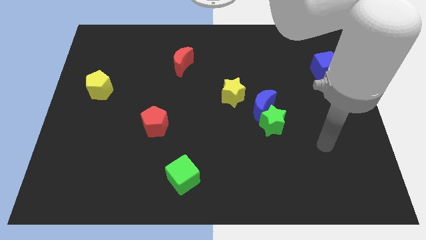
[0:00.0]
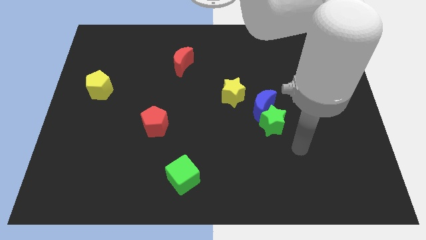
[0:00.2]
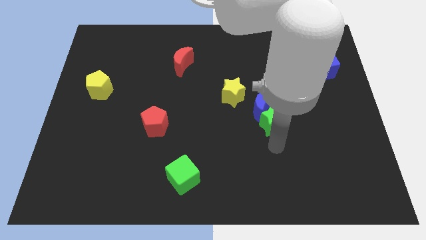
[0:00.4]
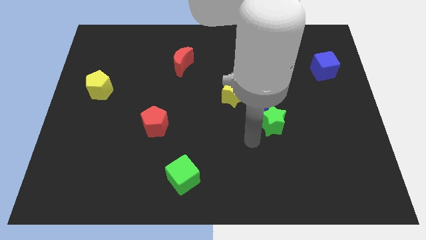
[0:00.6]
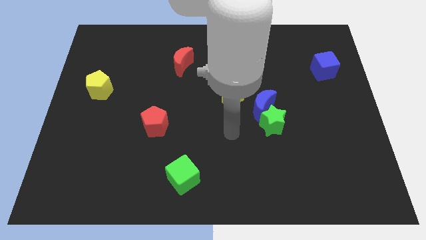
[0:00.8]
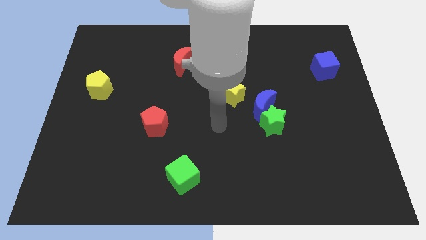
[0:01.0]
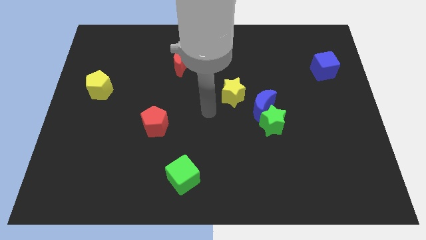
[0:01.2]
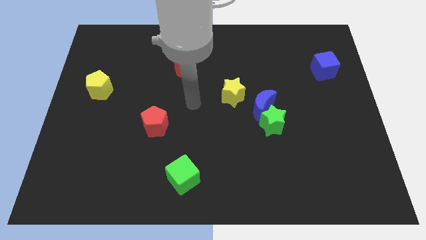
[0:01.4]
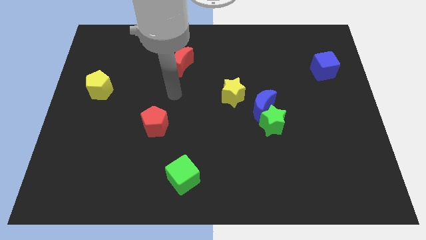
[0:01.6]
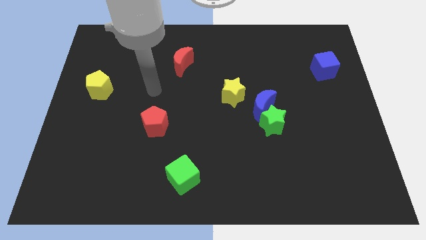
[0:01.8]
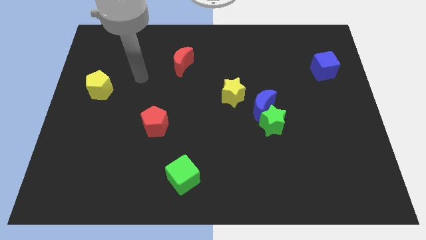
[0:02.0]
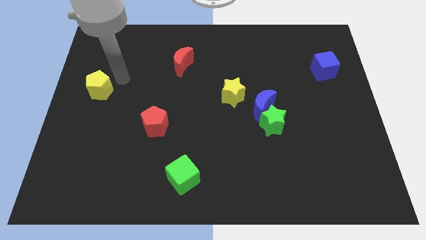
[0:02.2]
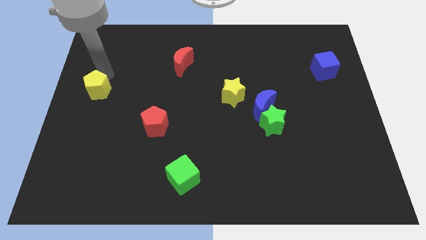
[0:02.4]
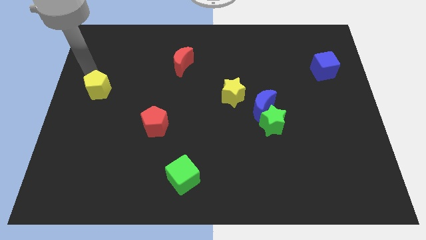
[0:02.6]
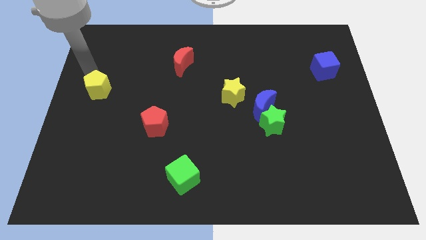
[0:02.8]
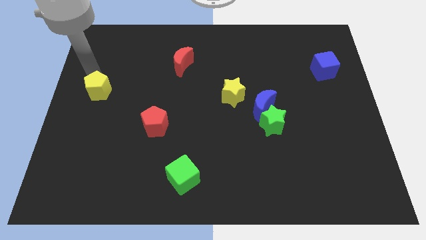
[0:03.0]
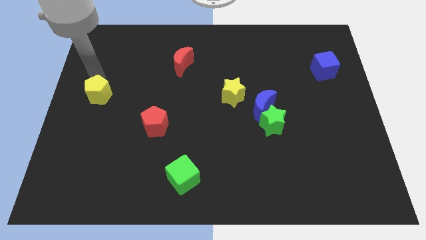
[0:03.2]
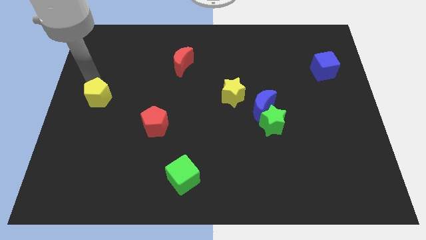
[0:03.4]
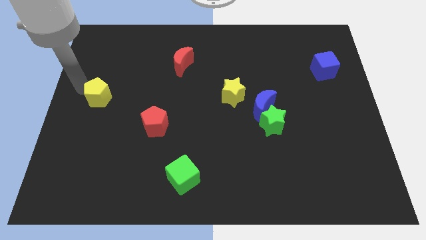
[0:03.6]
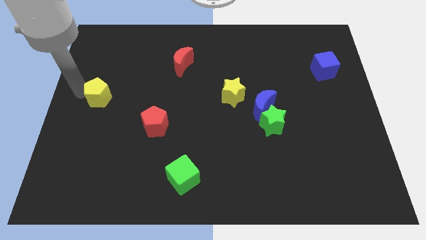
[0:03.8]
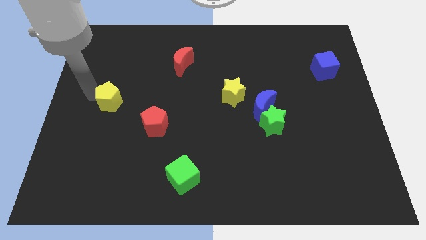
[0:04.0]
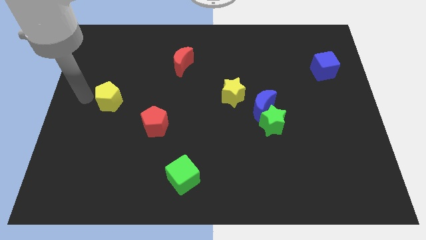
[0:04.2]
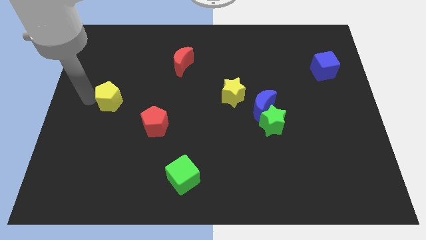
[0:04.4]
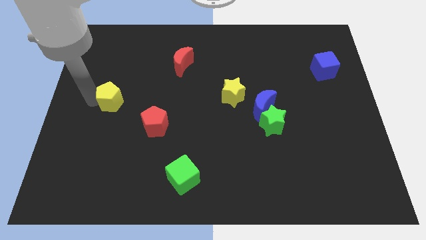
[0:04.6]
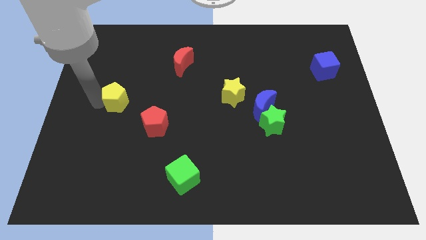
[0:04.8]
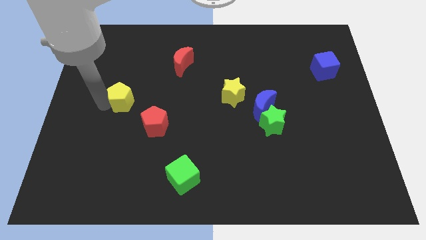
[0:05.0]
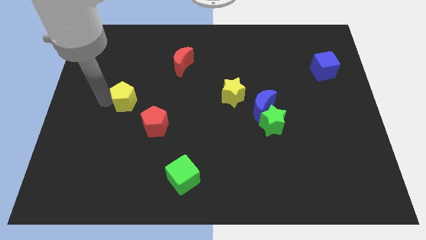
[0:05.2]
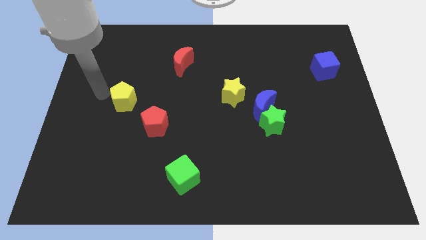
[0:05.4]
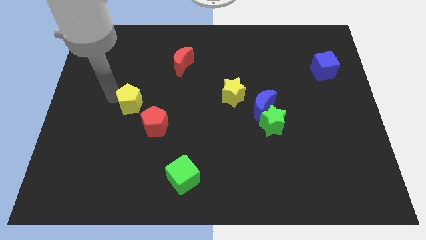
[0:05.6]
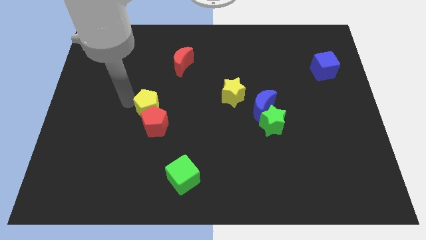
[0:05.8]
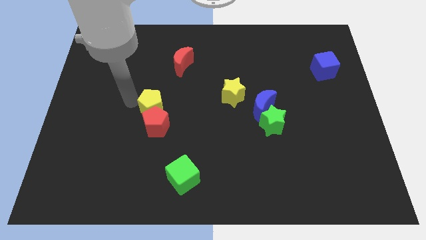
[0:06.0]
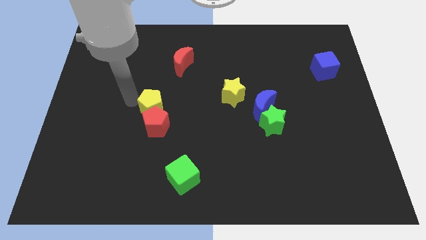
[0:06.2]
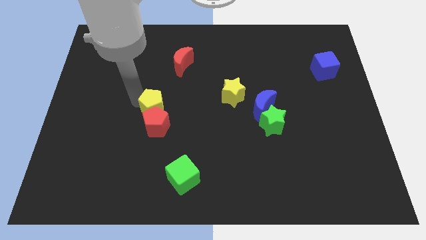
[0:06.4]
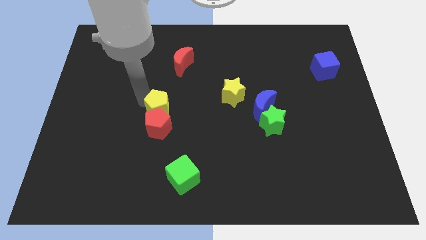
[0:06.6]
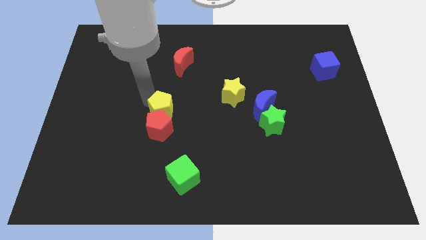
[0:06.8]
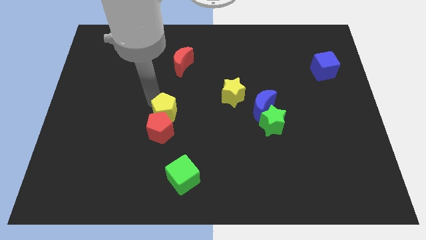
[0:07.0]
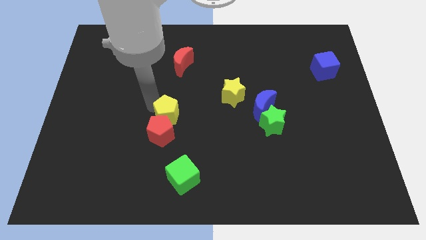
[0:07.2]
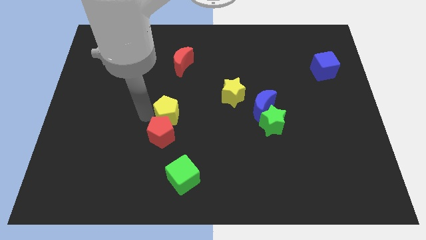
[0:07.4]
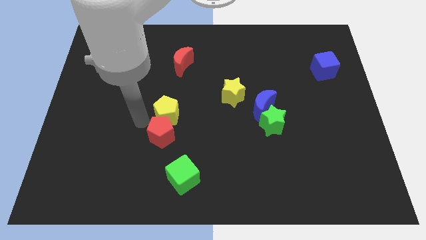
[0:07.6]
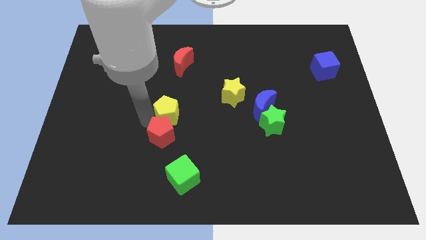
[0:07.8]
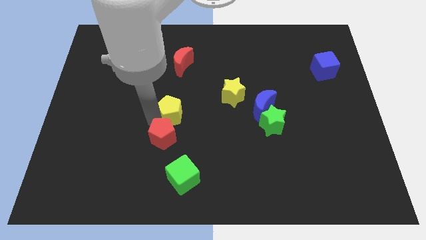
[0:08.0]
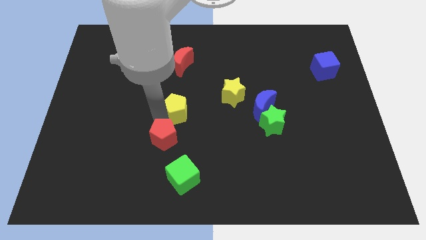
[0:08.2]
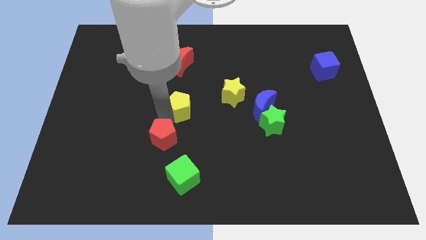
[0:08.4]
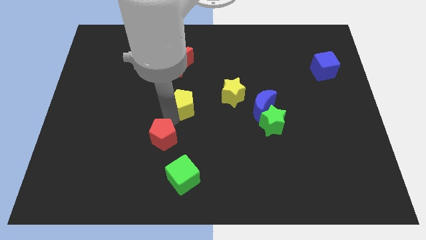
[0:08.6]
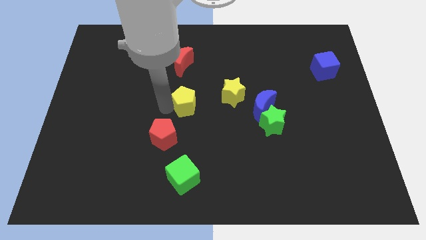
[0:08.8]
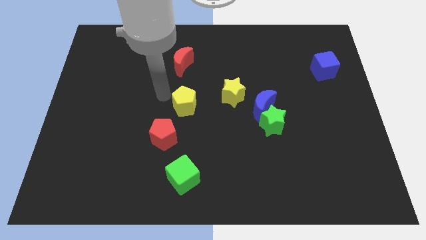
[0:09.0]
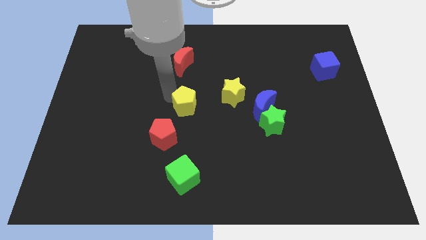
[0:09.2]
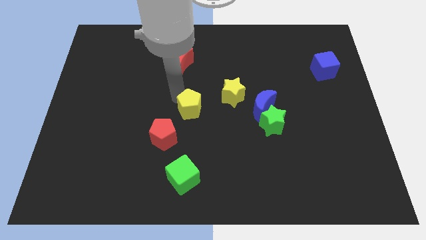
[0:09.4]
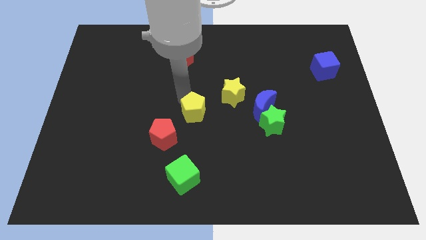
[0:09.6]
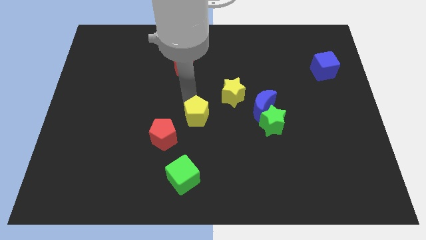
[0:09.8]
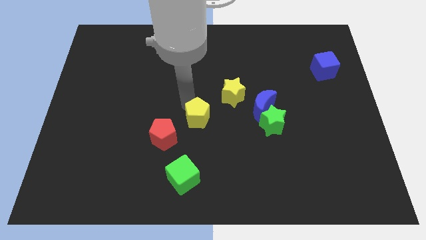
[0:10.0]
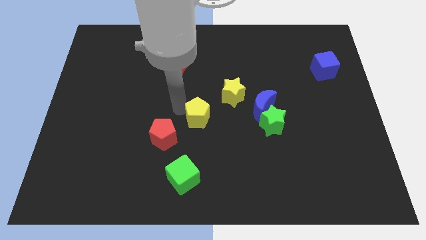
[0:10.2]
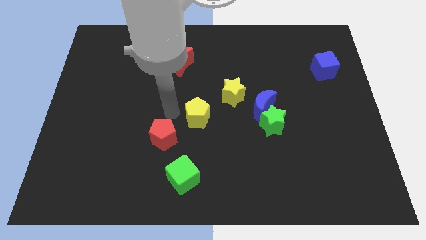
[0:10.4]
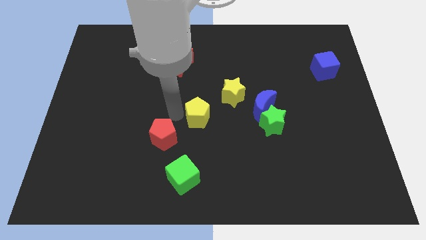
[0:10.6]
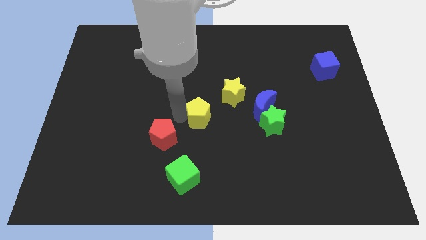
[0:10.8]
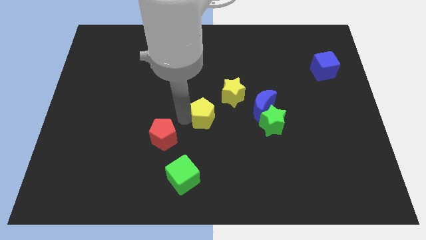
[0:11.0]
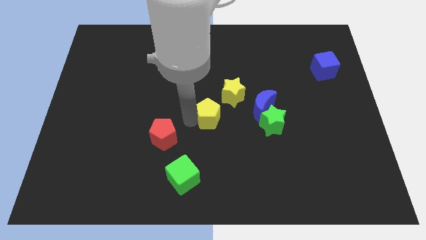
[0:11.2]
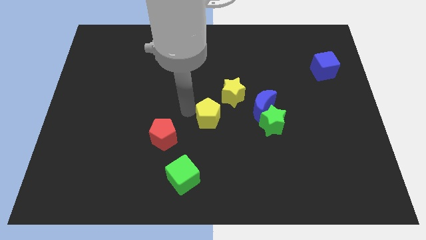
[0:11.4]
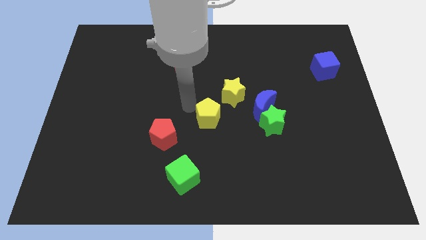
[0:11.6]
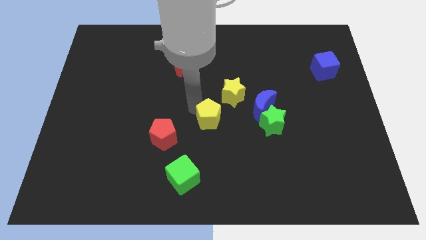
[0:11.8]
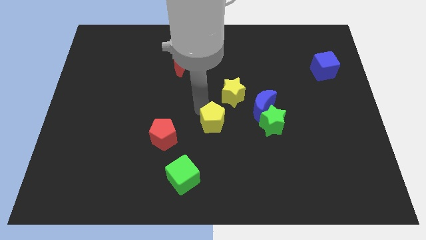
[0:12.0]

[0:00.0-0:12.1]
move the yellow pentagon below the yellow star

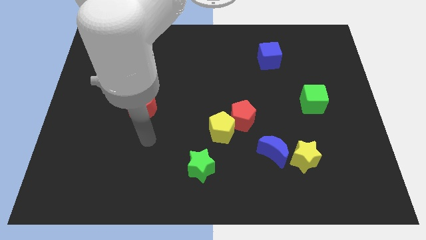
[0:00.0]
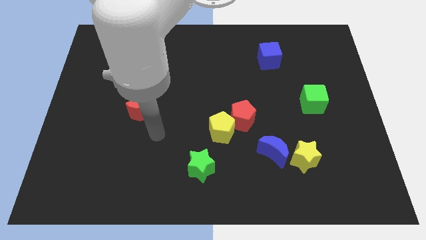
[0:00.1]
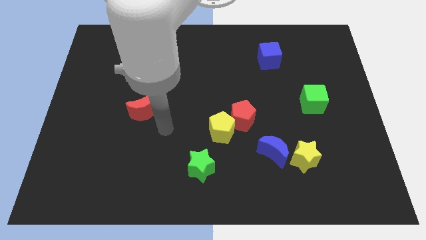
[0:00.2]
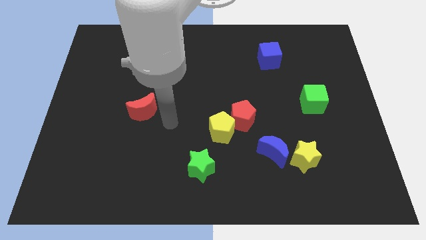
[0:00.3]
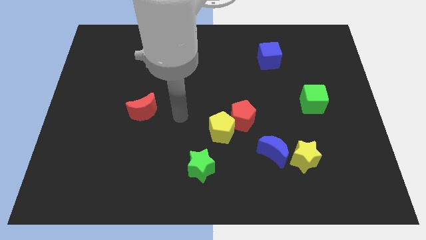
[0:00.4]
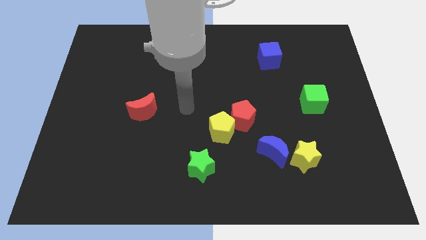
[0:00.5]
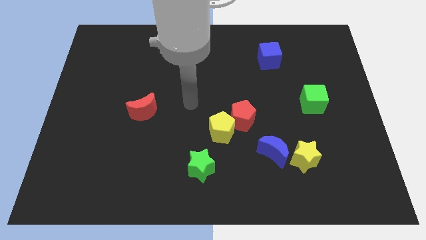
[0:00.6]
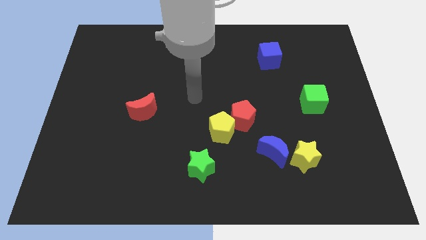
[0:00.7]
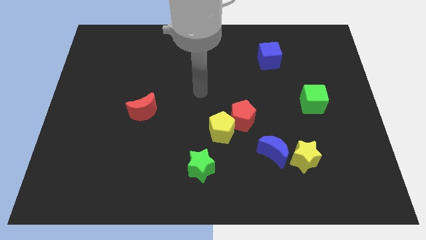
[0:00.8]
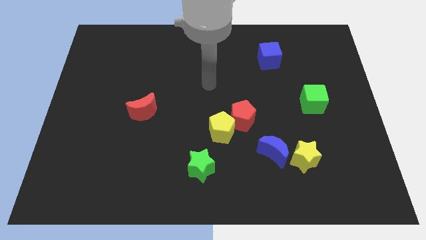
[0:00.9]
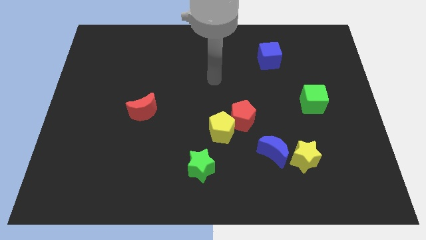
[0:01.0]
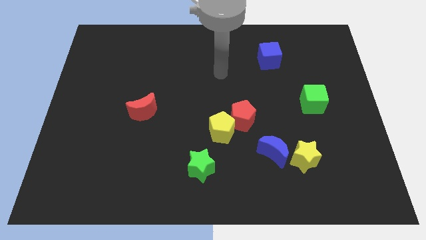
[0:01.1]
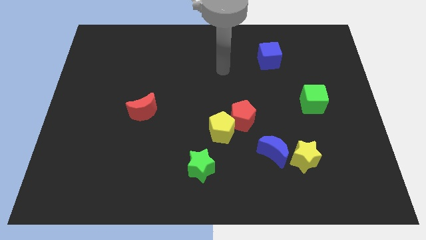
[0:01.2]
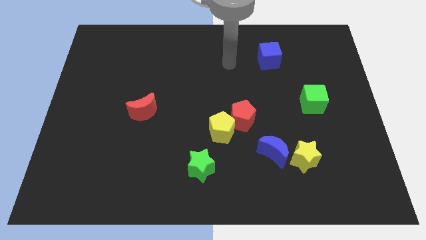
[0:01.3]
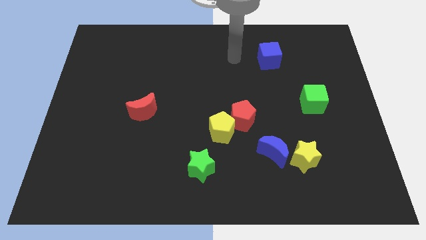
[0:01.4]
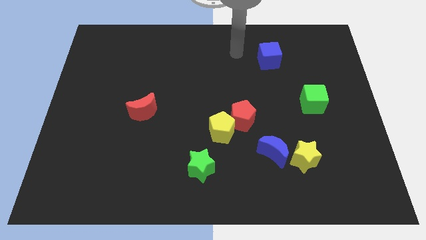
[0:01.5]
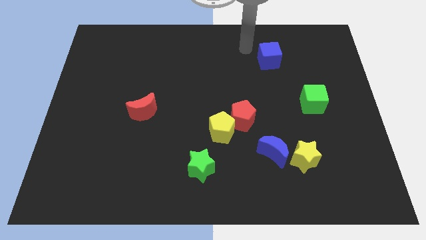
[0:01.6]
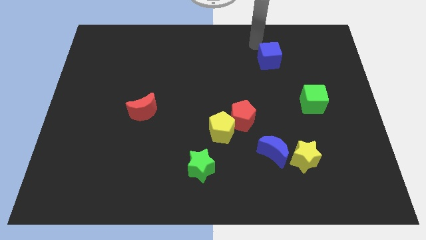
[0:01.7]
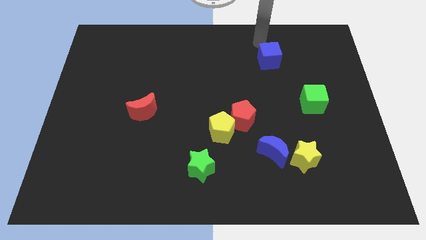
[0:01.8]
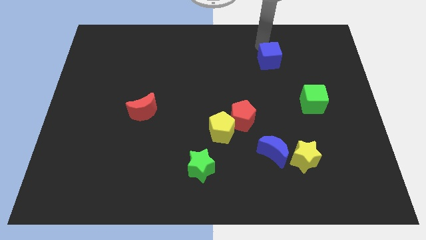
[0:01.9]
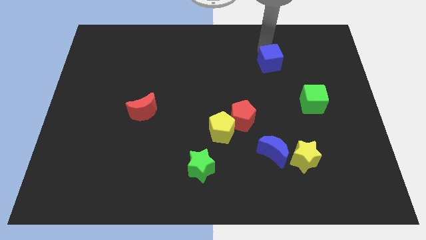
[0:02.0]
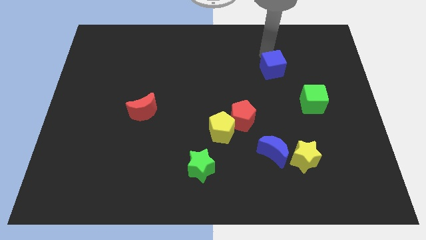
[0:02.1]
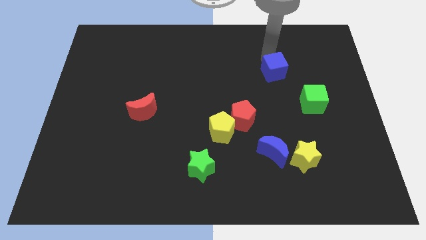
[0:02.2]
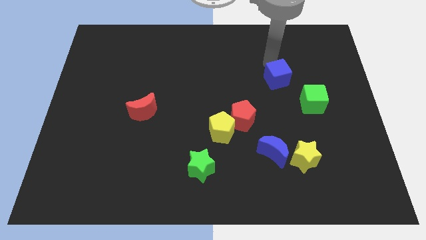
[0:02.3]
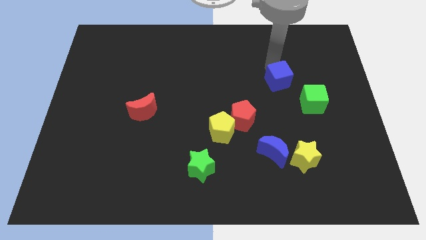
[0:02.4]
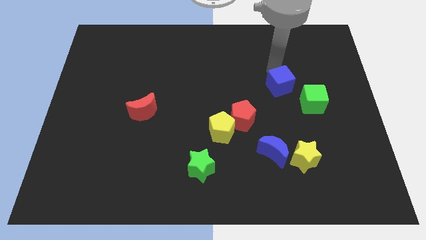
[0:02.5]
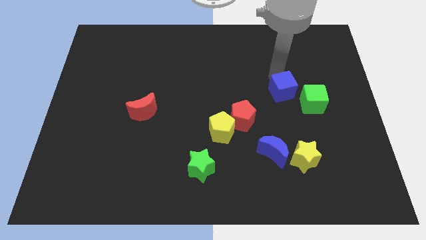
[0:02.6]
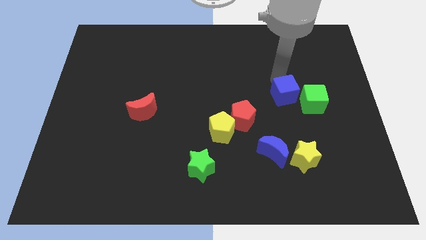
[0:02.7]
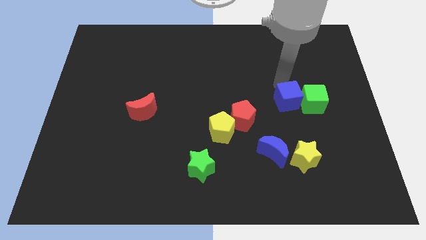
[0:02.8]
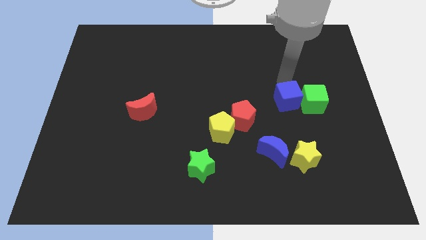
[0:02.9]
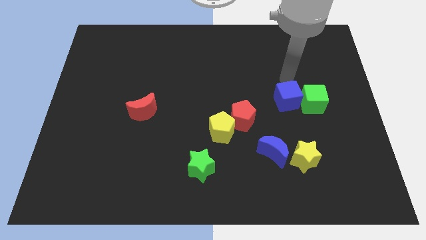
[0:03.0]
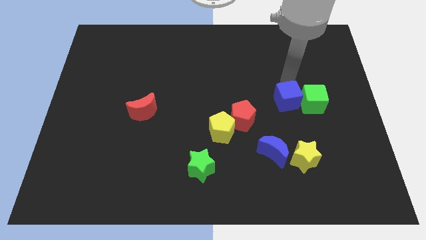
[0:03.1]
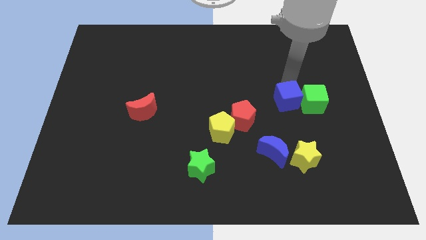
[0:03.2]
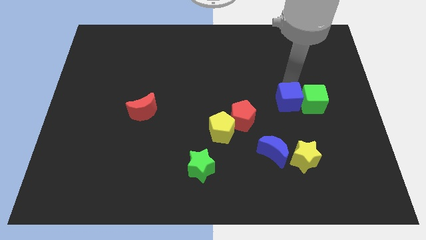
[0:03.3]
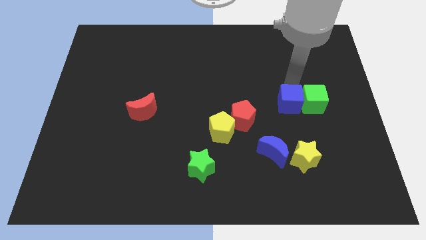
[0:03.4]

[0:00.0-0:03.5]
push the blue cube to the right side of the red pentagon
